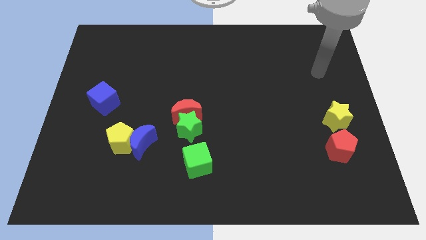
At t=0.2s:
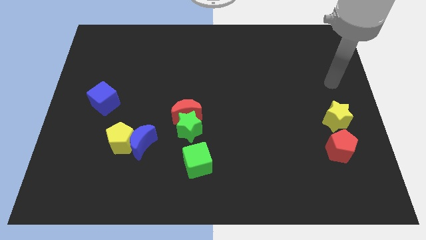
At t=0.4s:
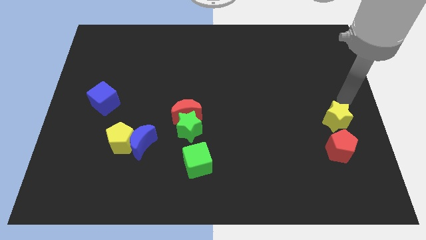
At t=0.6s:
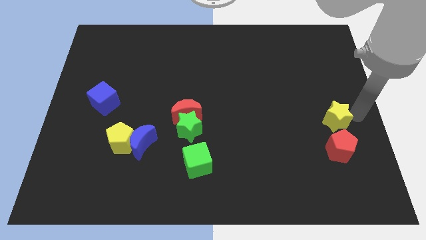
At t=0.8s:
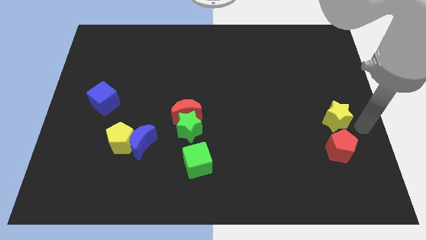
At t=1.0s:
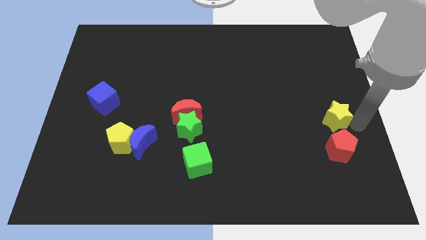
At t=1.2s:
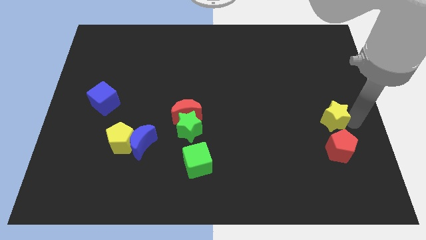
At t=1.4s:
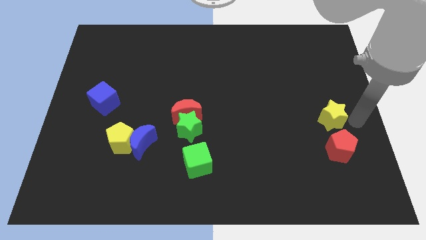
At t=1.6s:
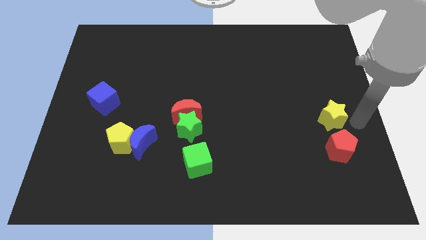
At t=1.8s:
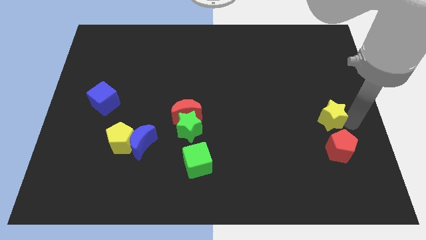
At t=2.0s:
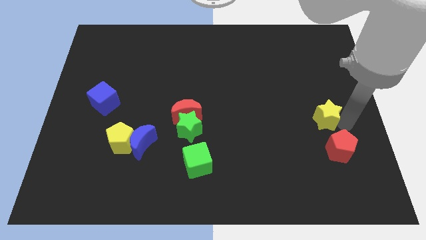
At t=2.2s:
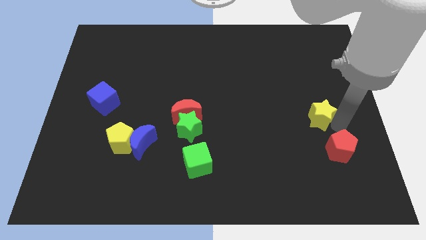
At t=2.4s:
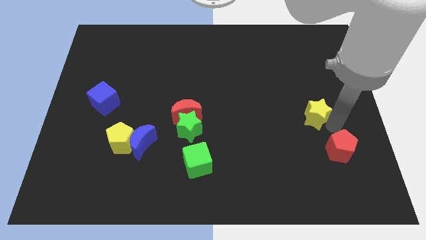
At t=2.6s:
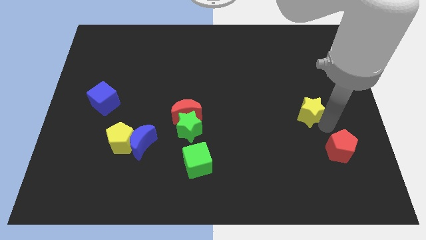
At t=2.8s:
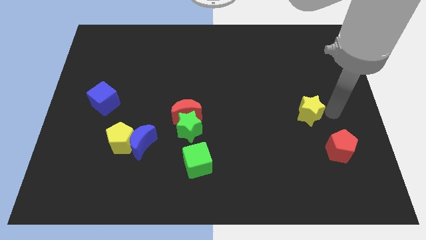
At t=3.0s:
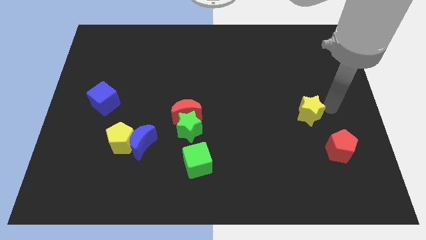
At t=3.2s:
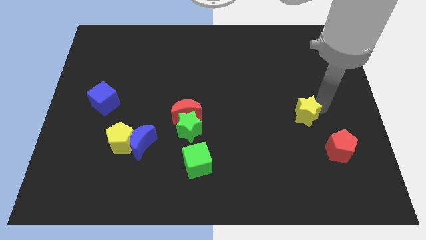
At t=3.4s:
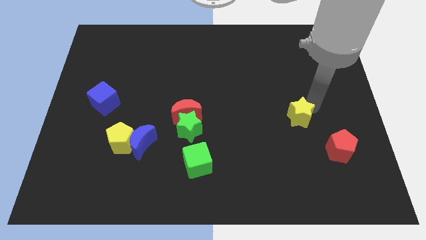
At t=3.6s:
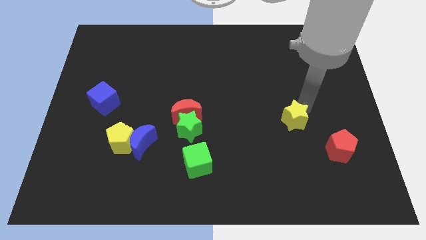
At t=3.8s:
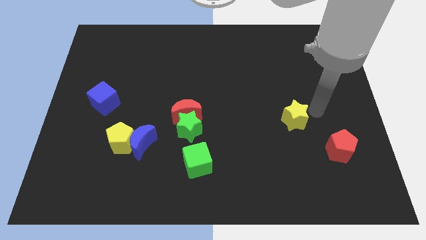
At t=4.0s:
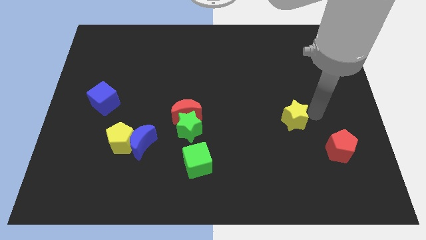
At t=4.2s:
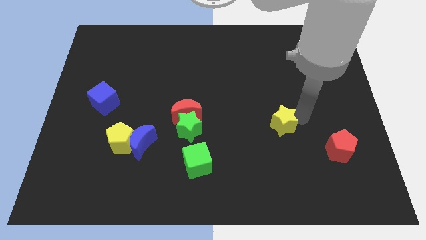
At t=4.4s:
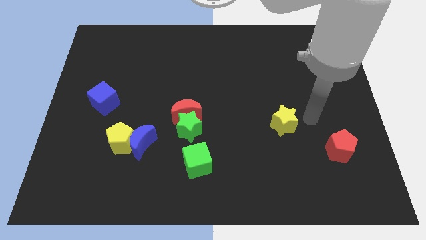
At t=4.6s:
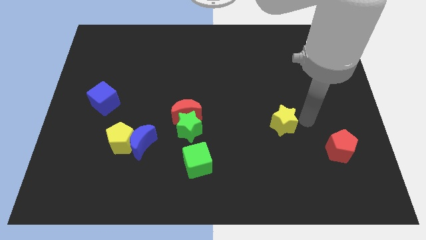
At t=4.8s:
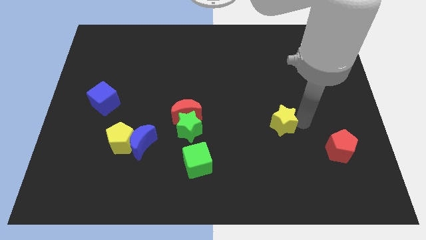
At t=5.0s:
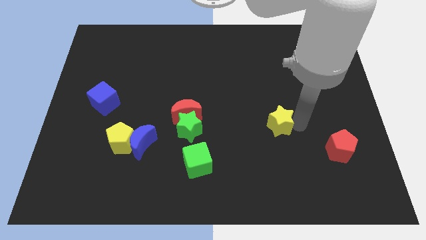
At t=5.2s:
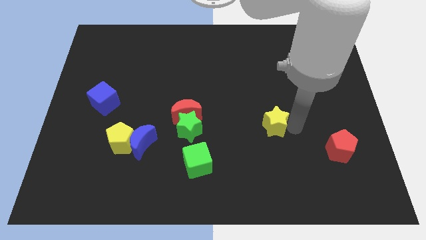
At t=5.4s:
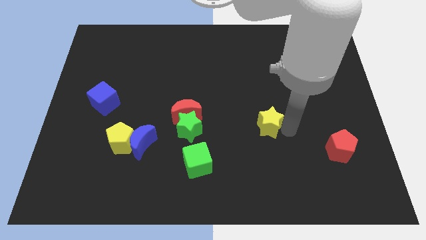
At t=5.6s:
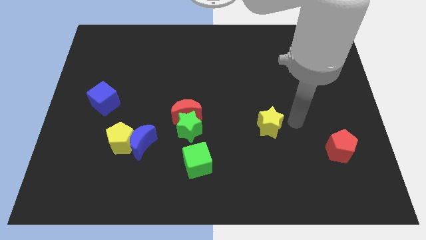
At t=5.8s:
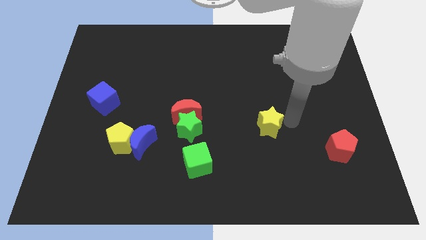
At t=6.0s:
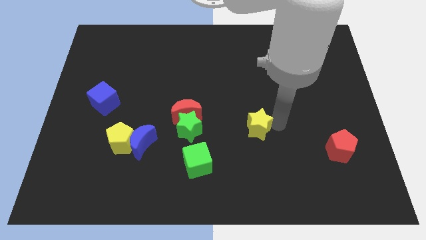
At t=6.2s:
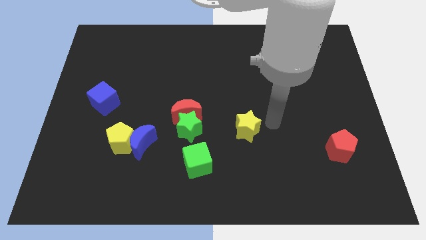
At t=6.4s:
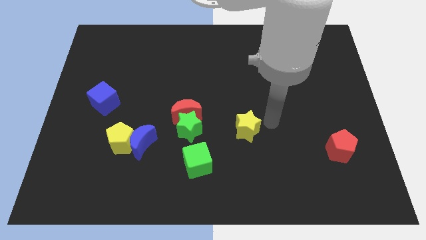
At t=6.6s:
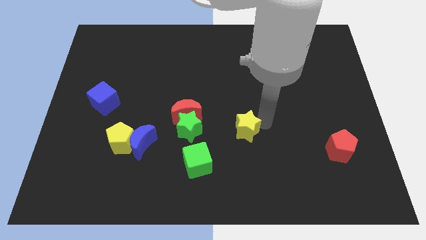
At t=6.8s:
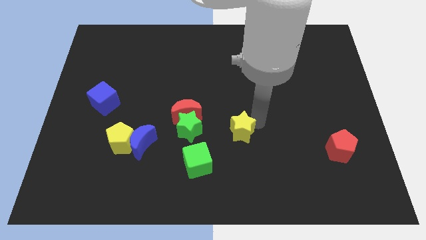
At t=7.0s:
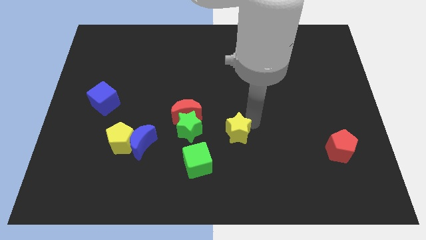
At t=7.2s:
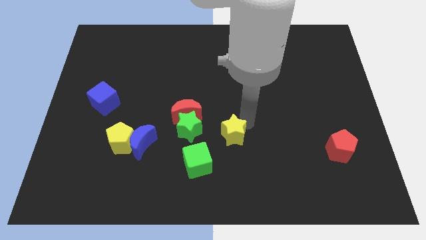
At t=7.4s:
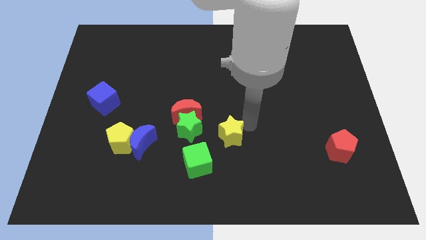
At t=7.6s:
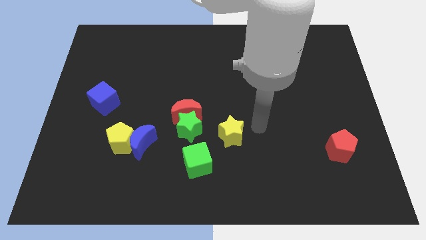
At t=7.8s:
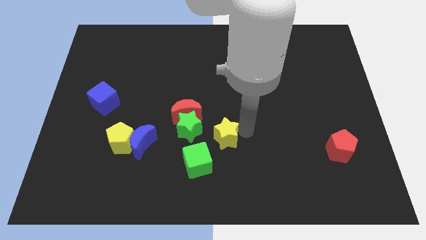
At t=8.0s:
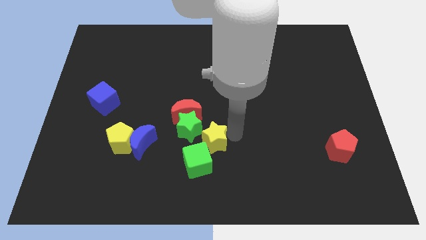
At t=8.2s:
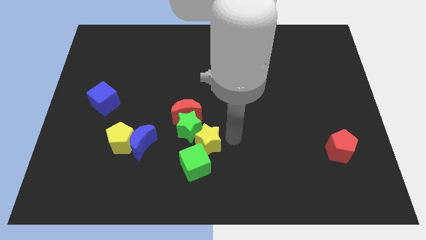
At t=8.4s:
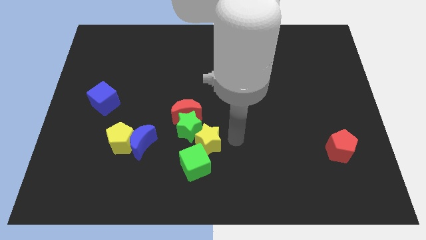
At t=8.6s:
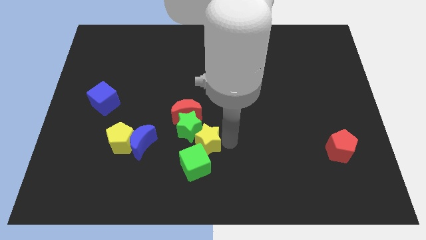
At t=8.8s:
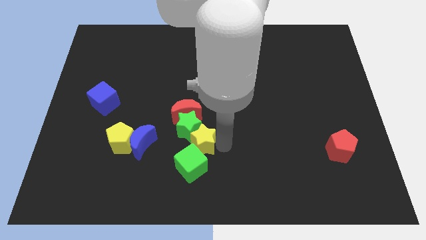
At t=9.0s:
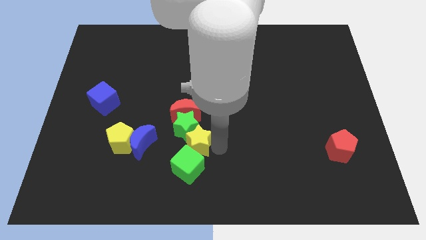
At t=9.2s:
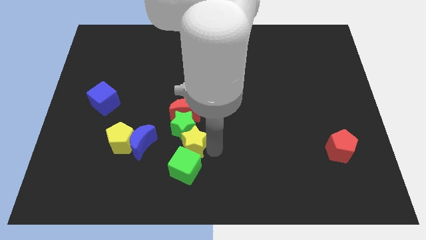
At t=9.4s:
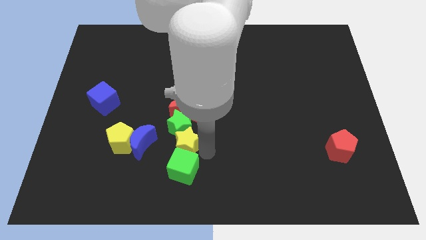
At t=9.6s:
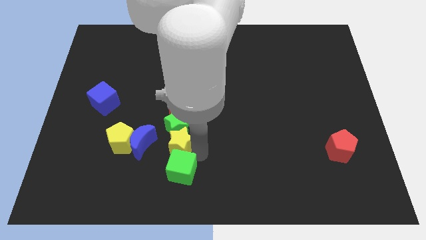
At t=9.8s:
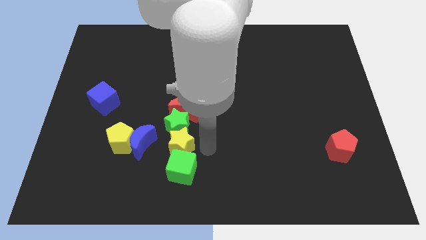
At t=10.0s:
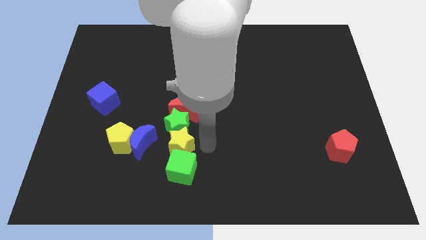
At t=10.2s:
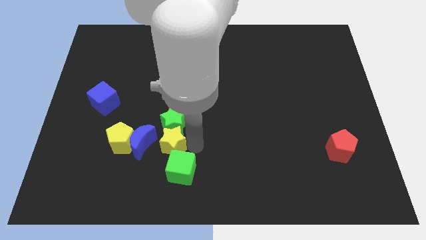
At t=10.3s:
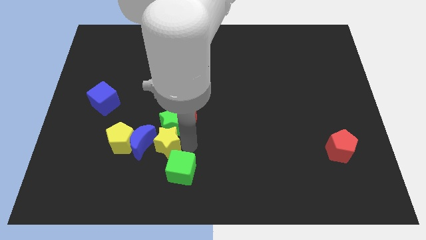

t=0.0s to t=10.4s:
move the yellow star to the blue moon

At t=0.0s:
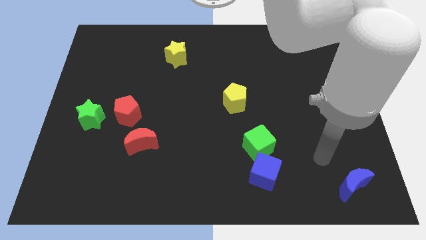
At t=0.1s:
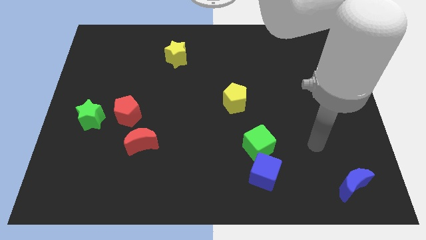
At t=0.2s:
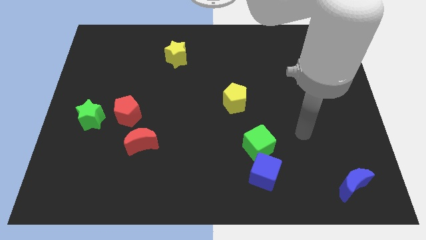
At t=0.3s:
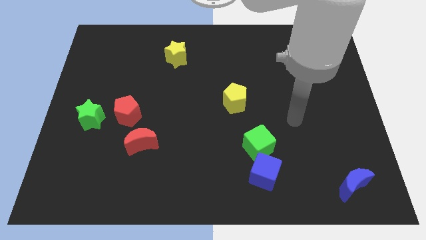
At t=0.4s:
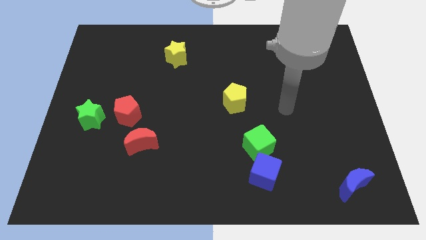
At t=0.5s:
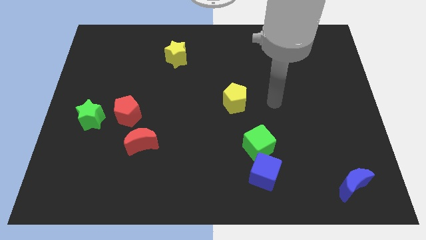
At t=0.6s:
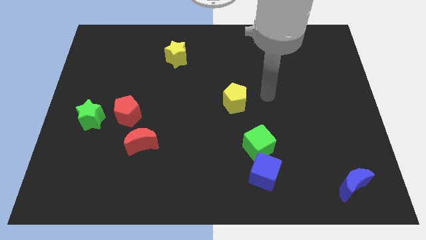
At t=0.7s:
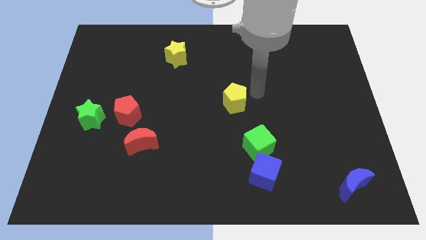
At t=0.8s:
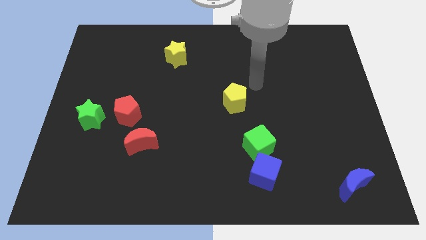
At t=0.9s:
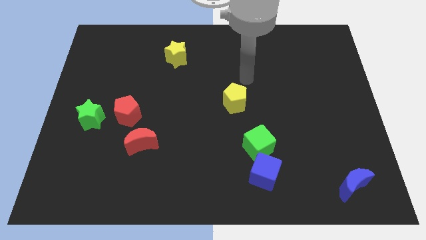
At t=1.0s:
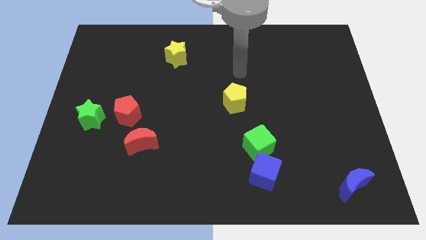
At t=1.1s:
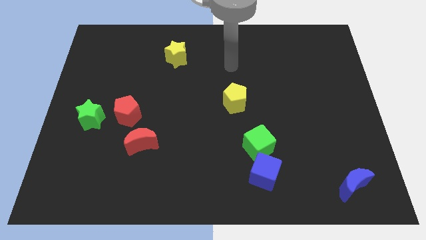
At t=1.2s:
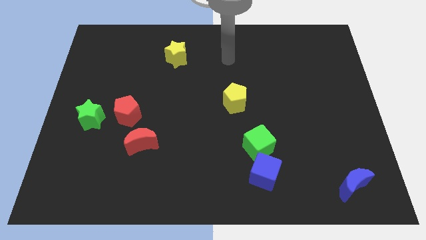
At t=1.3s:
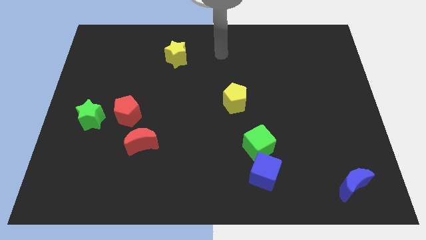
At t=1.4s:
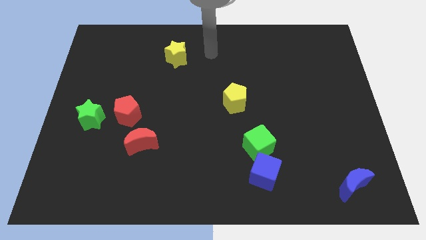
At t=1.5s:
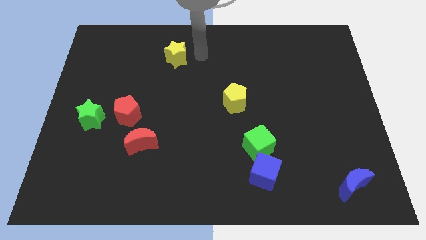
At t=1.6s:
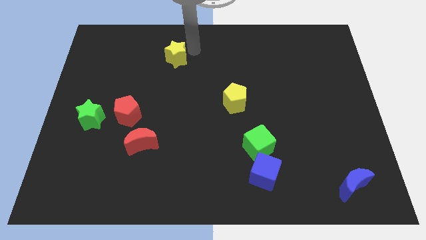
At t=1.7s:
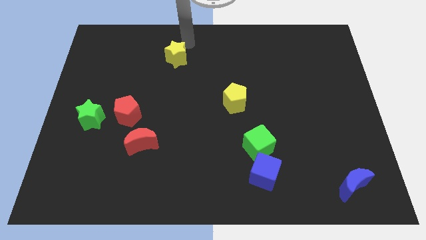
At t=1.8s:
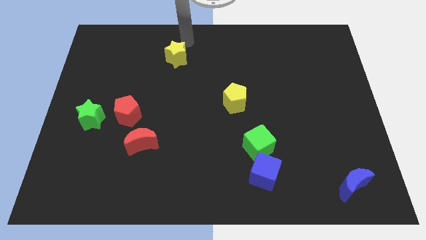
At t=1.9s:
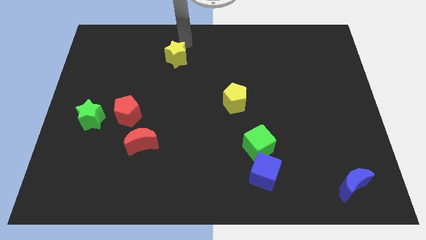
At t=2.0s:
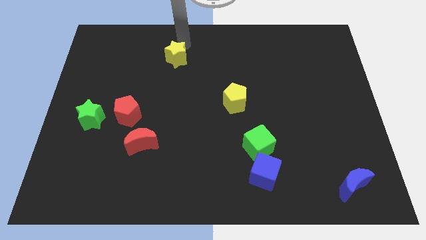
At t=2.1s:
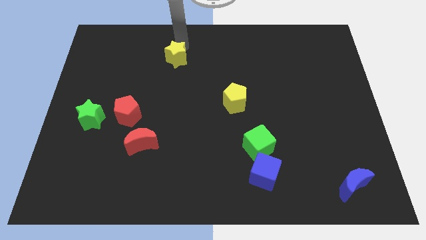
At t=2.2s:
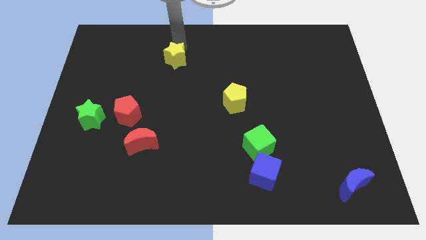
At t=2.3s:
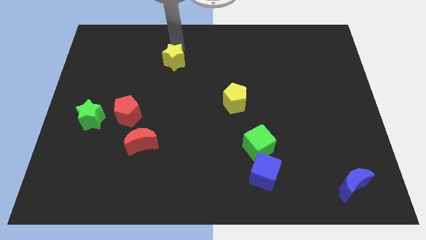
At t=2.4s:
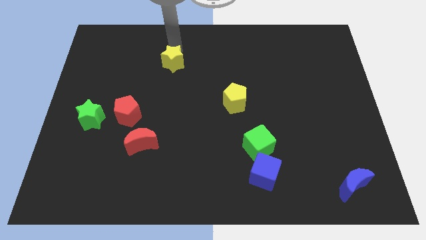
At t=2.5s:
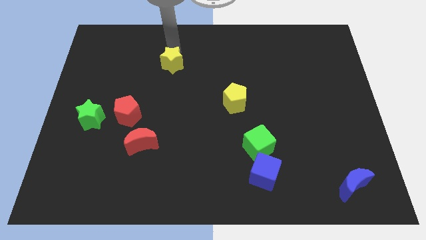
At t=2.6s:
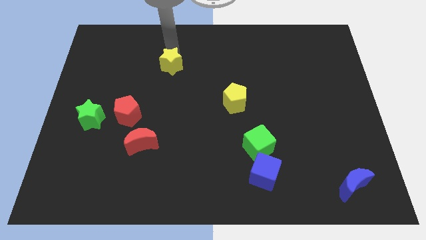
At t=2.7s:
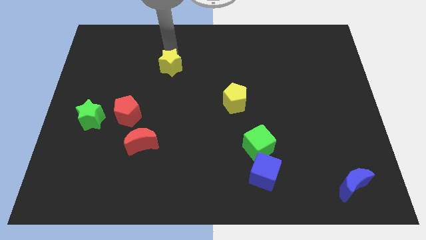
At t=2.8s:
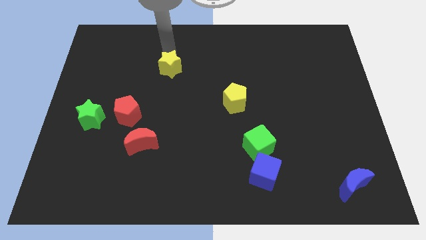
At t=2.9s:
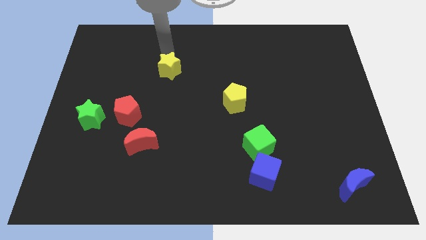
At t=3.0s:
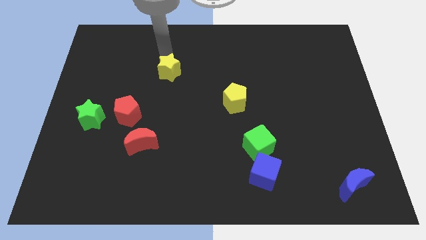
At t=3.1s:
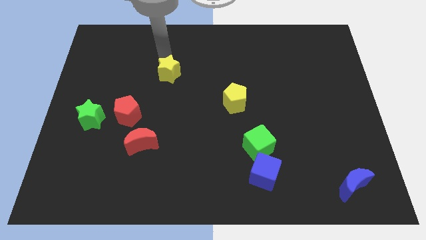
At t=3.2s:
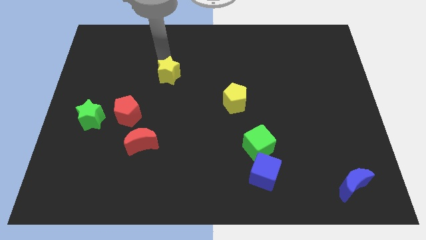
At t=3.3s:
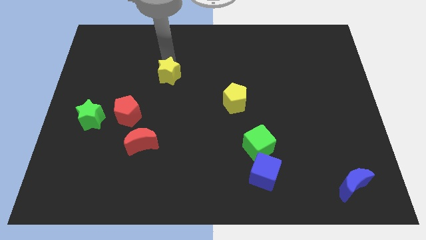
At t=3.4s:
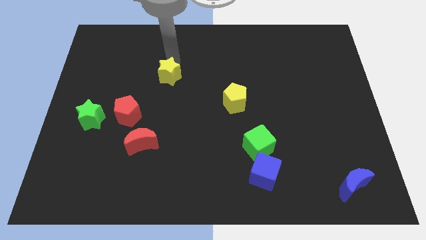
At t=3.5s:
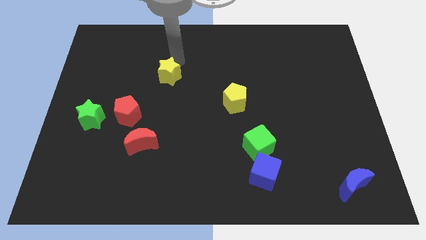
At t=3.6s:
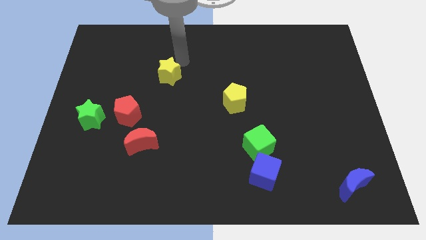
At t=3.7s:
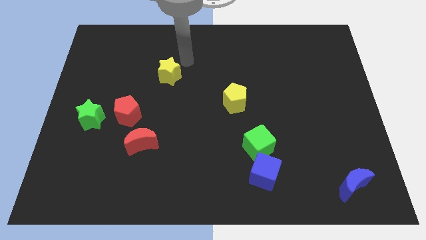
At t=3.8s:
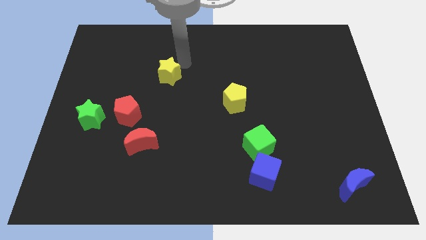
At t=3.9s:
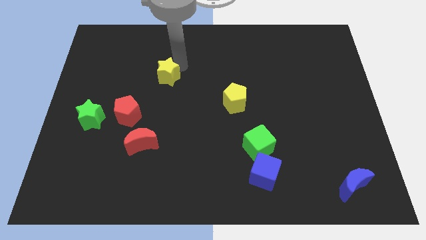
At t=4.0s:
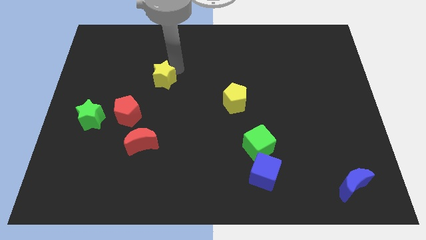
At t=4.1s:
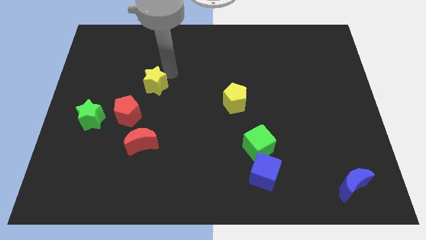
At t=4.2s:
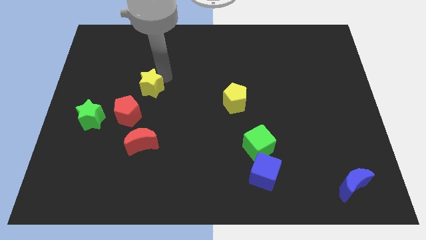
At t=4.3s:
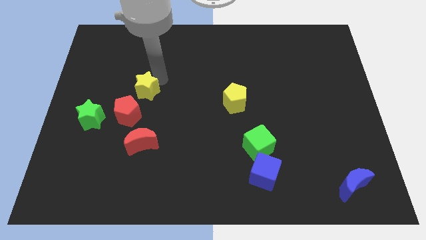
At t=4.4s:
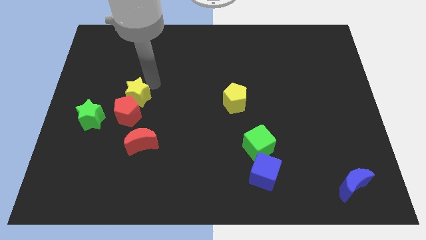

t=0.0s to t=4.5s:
push the yellow star towards the red pentagon
